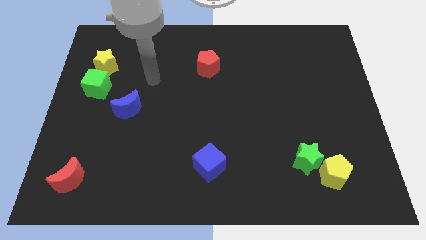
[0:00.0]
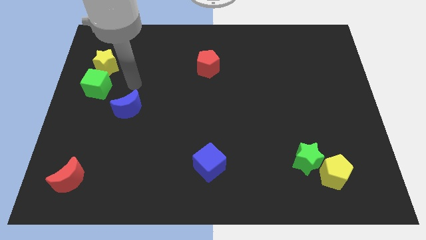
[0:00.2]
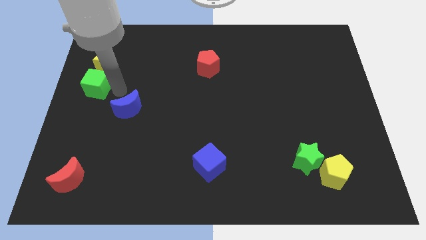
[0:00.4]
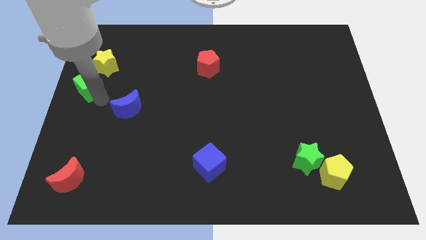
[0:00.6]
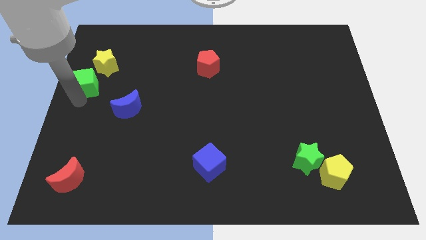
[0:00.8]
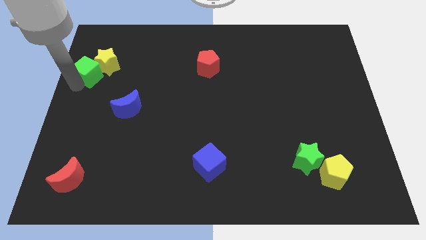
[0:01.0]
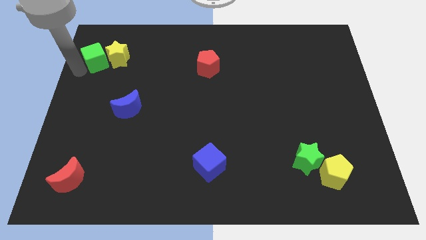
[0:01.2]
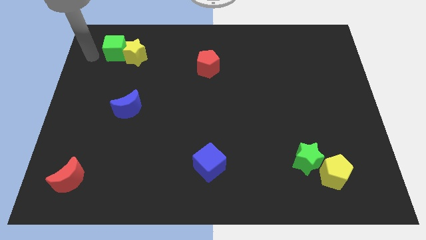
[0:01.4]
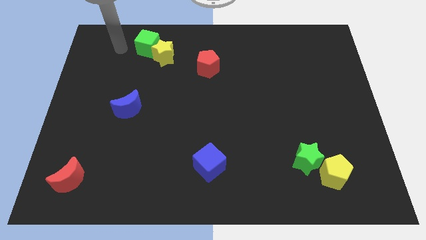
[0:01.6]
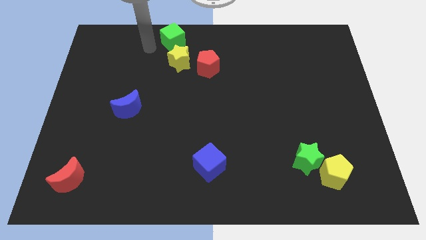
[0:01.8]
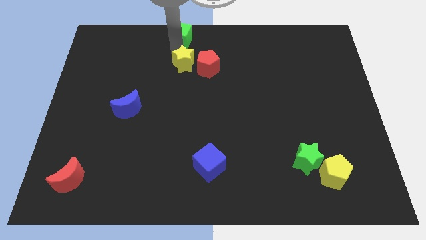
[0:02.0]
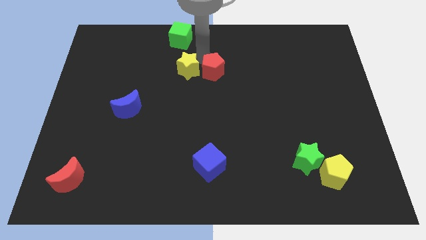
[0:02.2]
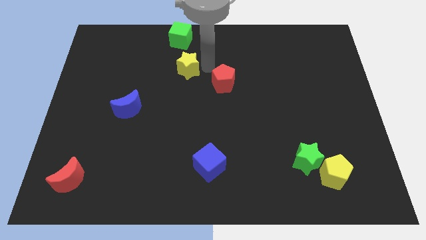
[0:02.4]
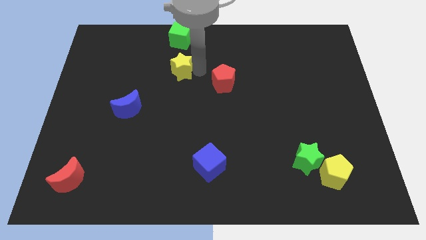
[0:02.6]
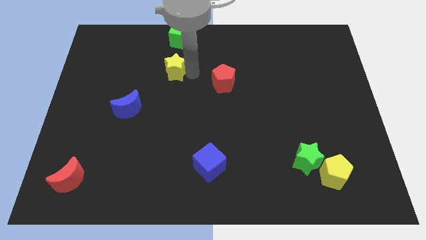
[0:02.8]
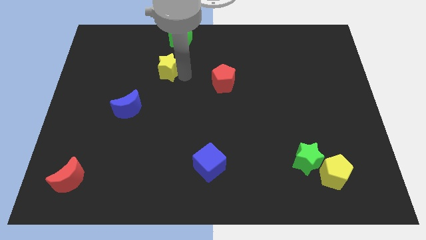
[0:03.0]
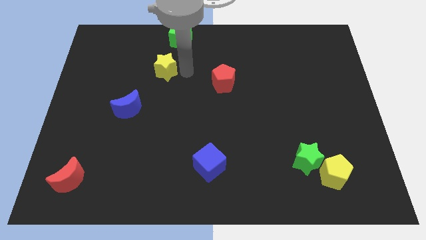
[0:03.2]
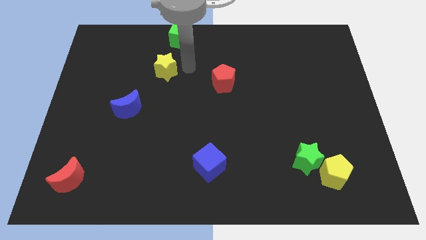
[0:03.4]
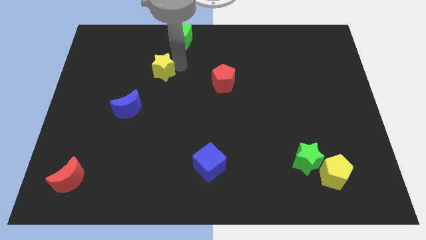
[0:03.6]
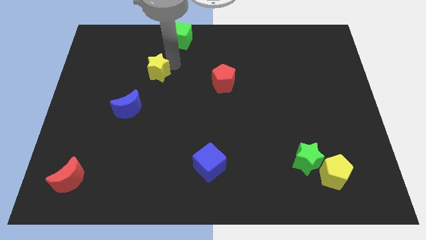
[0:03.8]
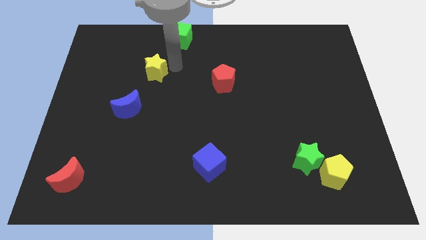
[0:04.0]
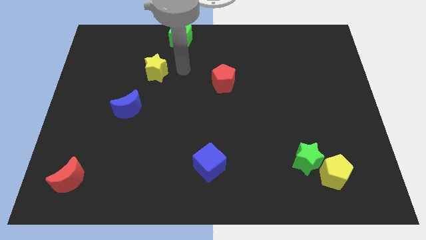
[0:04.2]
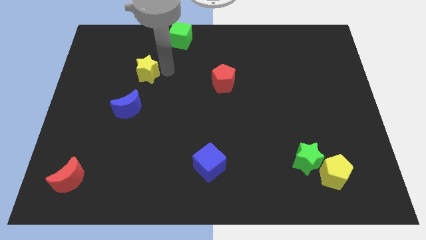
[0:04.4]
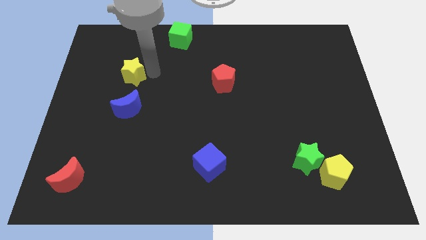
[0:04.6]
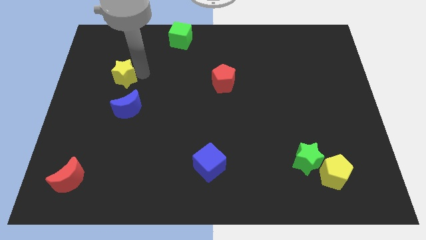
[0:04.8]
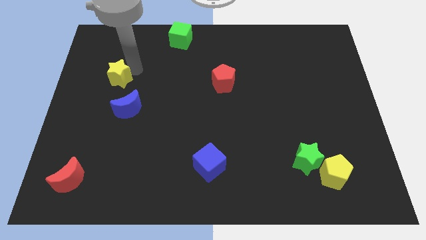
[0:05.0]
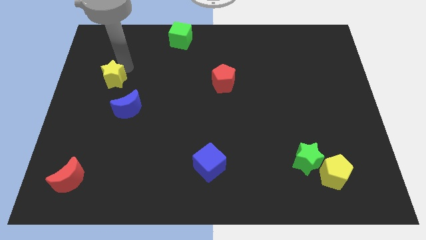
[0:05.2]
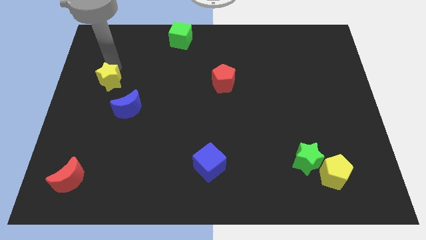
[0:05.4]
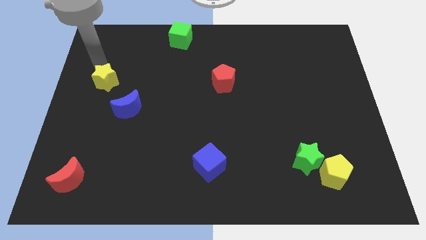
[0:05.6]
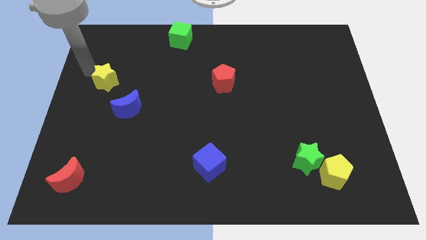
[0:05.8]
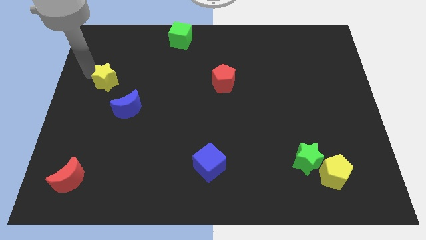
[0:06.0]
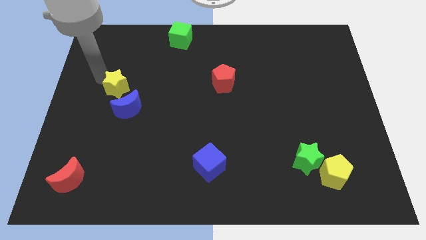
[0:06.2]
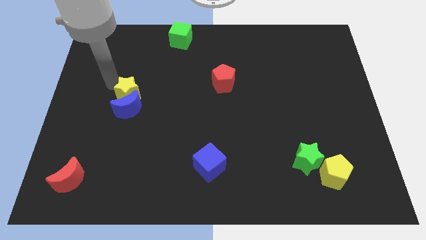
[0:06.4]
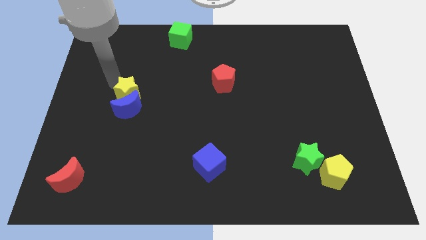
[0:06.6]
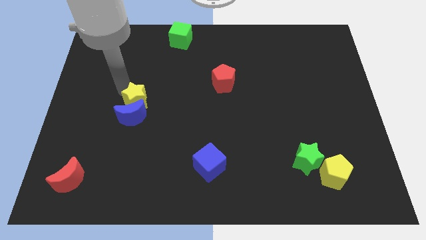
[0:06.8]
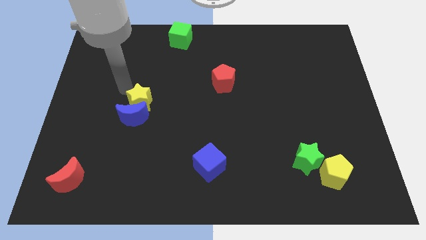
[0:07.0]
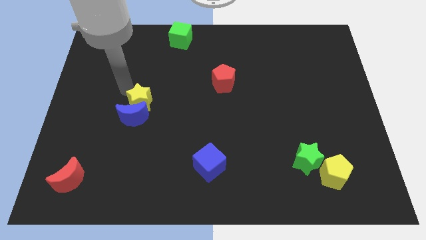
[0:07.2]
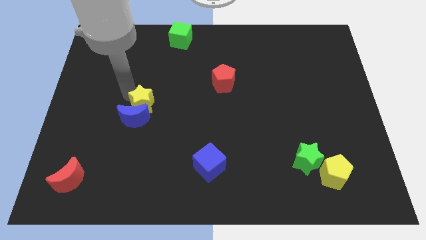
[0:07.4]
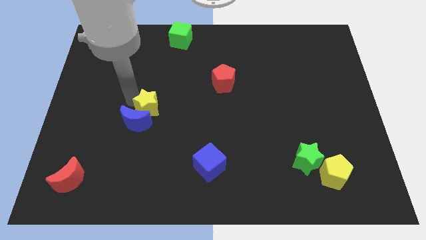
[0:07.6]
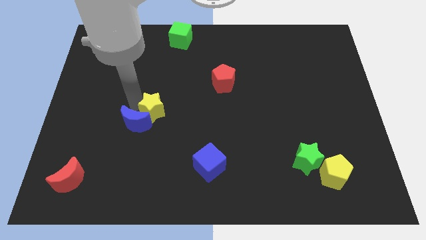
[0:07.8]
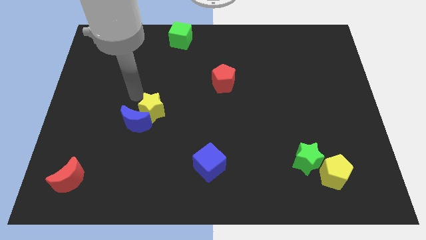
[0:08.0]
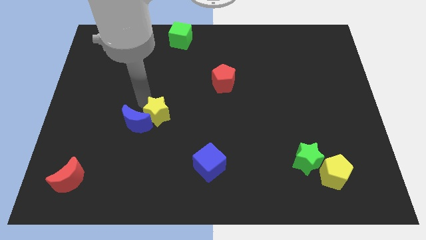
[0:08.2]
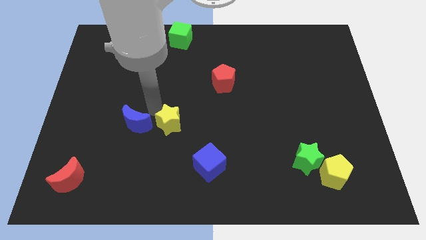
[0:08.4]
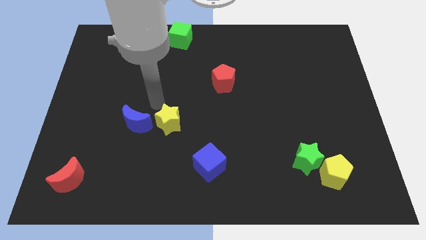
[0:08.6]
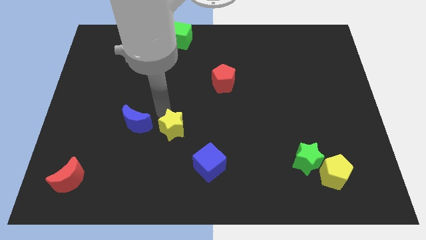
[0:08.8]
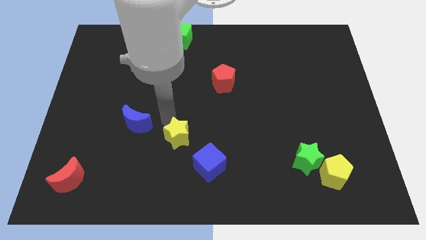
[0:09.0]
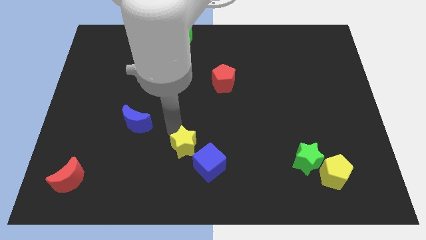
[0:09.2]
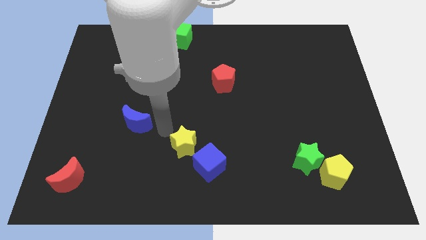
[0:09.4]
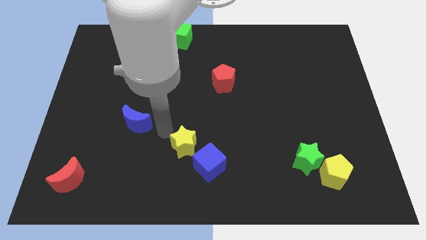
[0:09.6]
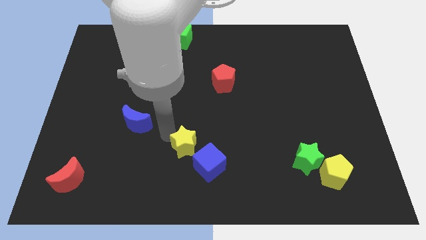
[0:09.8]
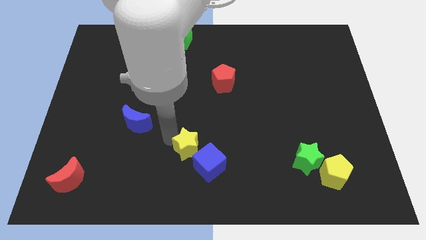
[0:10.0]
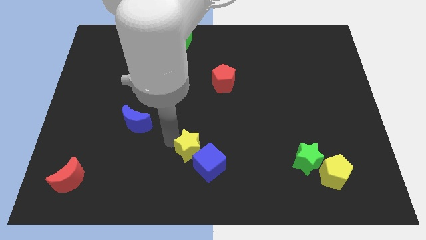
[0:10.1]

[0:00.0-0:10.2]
slide the yellow star towards the blue cube

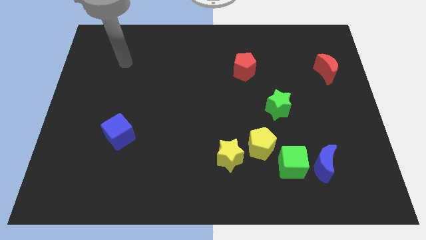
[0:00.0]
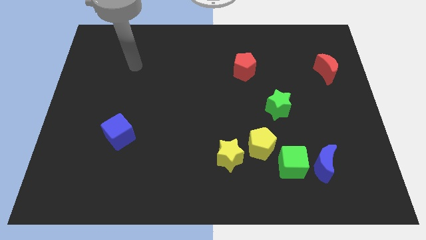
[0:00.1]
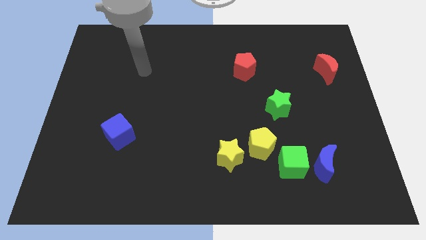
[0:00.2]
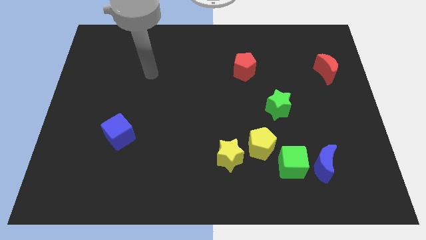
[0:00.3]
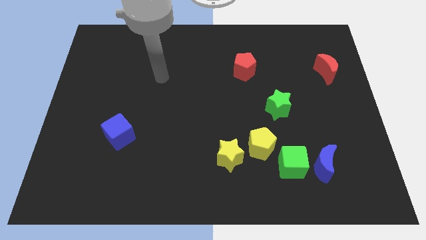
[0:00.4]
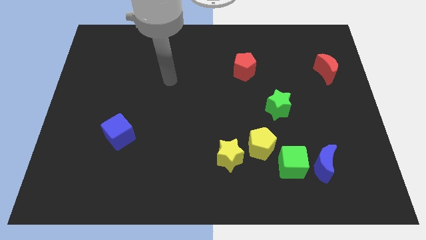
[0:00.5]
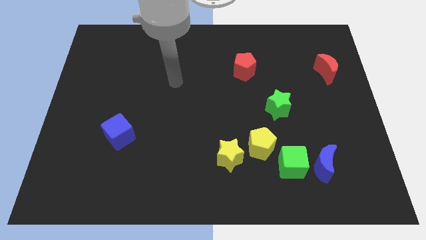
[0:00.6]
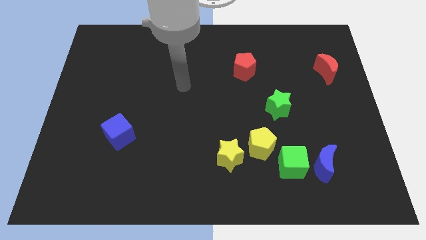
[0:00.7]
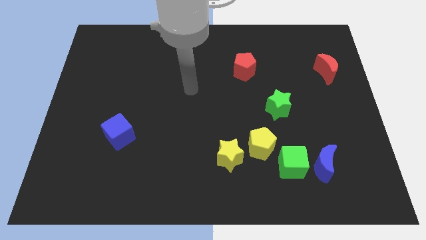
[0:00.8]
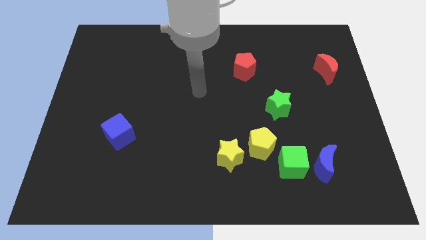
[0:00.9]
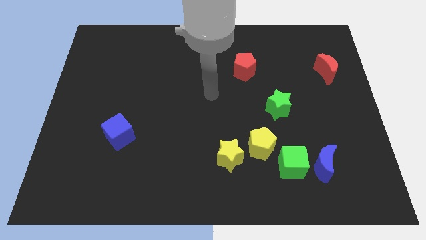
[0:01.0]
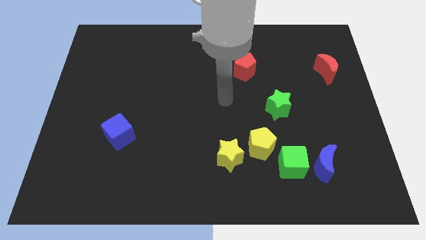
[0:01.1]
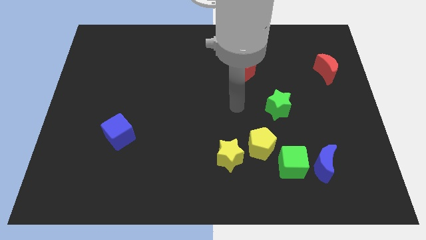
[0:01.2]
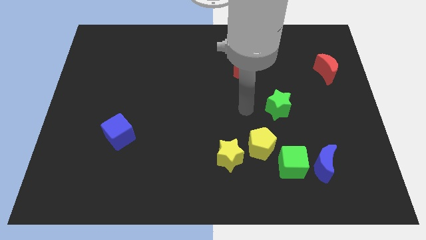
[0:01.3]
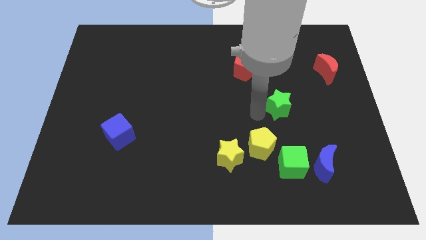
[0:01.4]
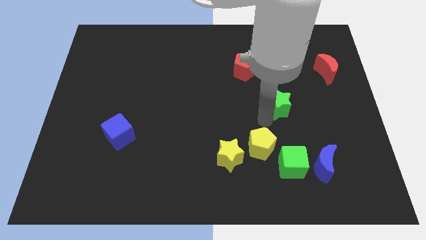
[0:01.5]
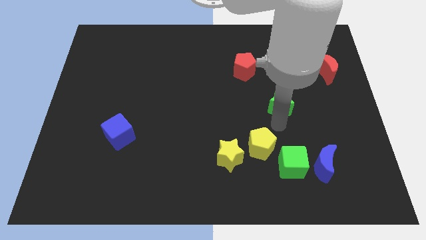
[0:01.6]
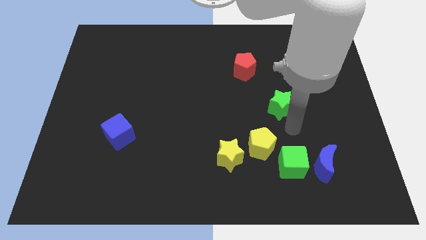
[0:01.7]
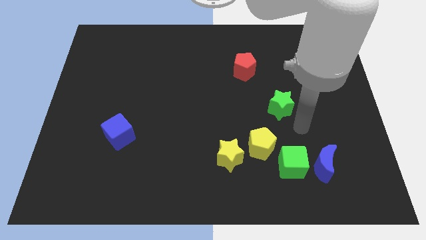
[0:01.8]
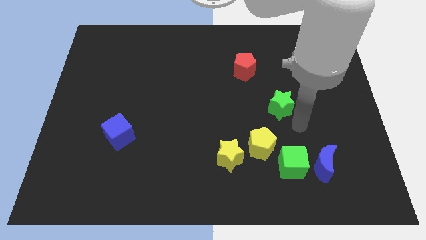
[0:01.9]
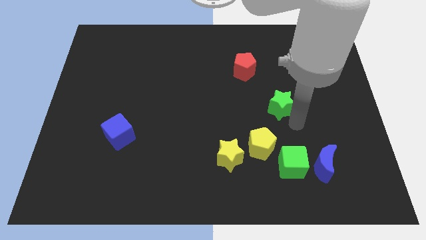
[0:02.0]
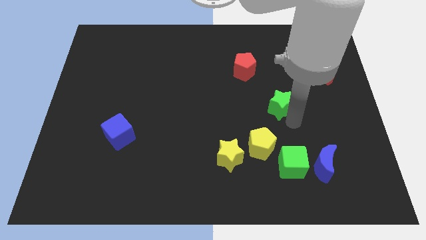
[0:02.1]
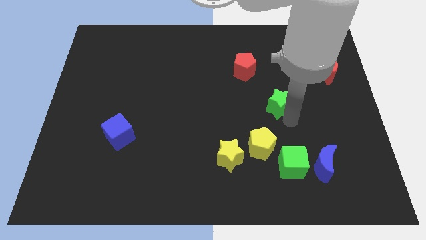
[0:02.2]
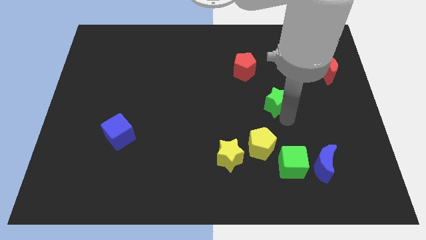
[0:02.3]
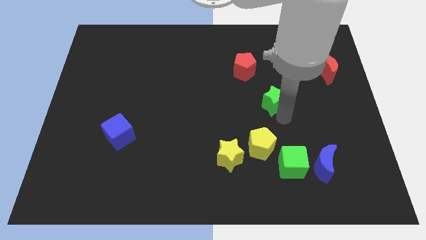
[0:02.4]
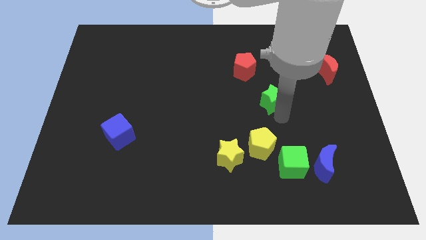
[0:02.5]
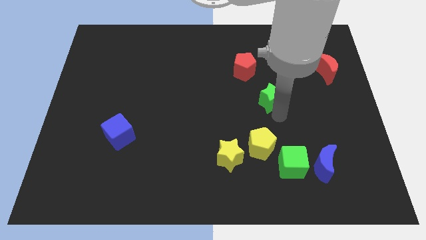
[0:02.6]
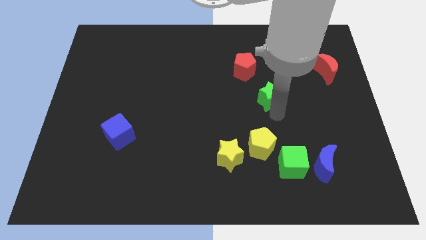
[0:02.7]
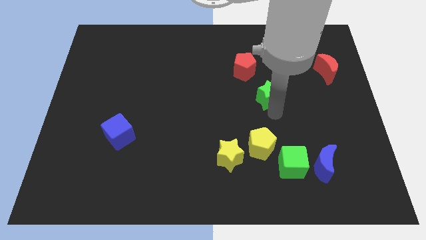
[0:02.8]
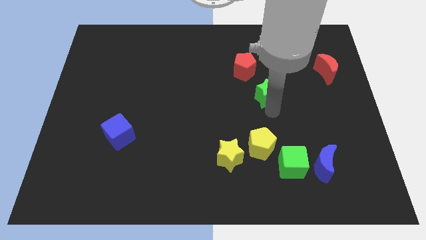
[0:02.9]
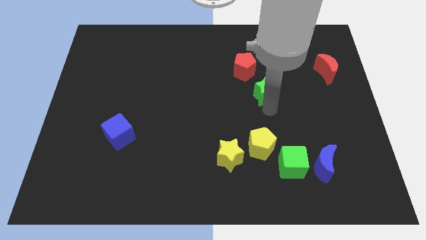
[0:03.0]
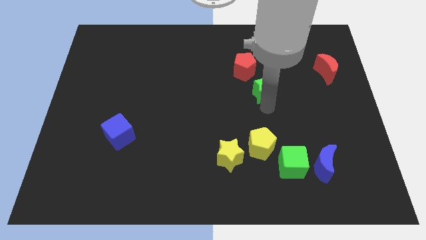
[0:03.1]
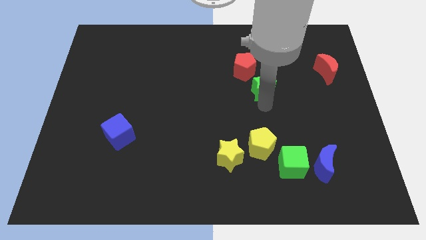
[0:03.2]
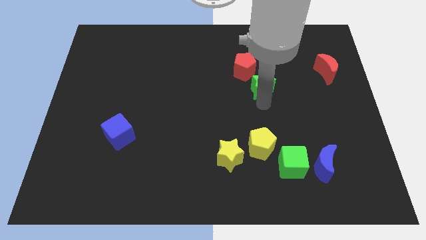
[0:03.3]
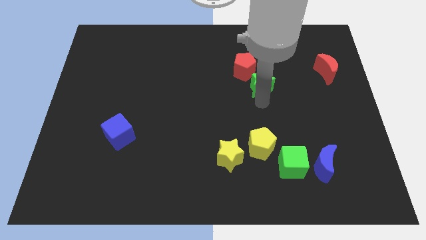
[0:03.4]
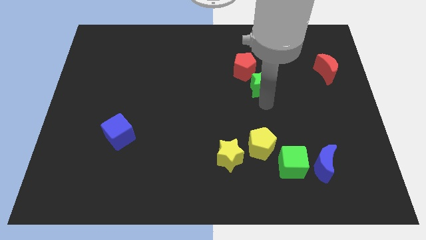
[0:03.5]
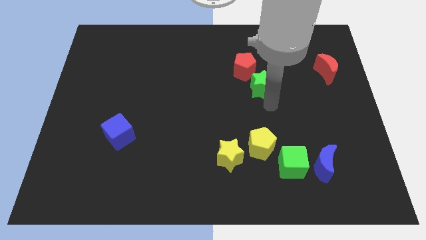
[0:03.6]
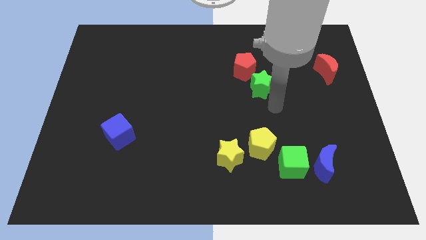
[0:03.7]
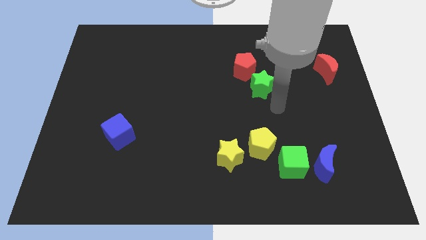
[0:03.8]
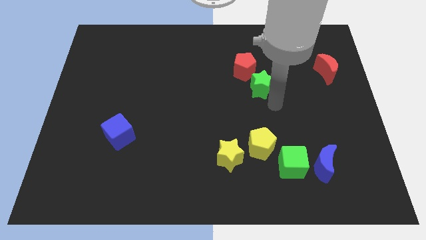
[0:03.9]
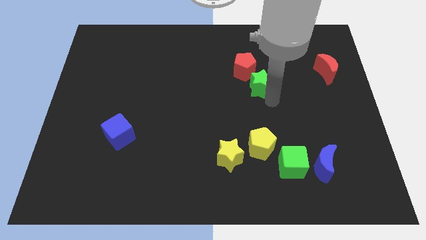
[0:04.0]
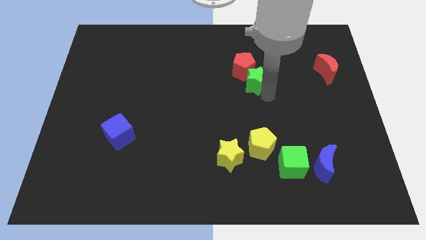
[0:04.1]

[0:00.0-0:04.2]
slide the green star to the red pentagon
